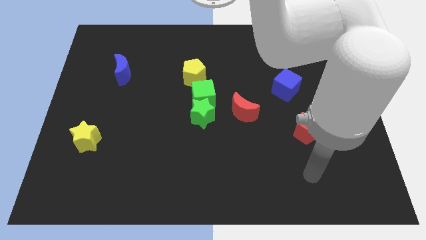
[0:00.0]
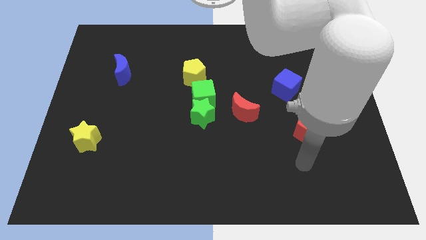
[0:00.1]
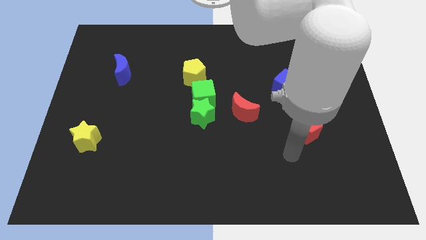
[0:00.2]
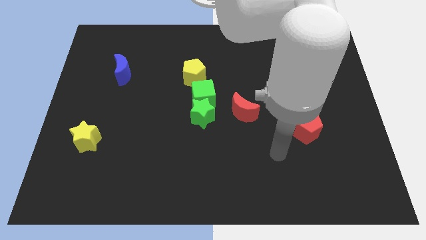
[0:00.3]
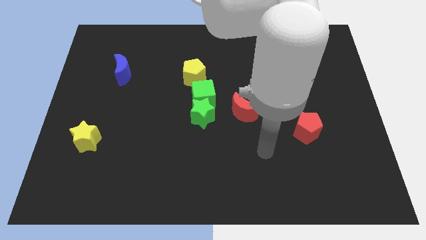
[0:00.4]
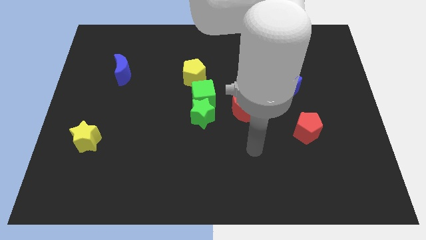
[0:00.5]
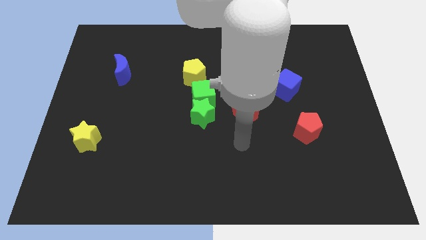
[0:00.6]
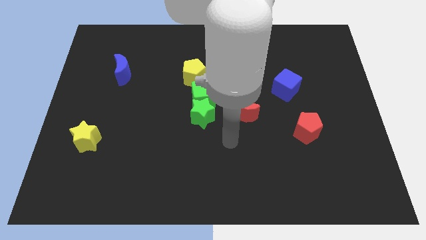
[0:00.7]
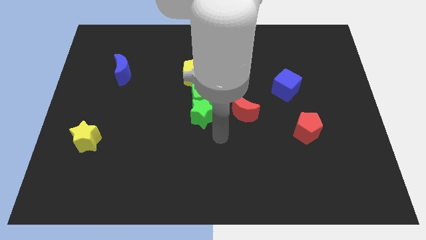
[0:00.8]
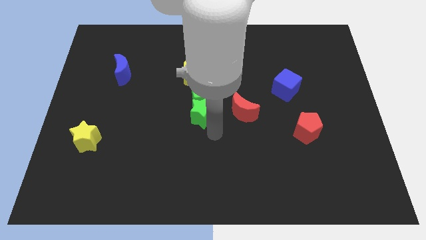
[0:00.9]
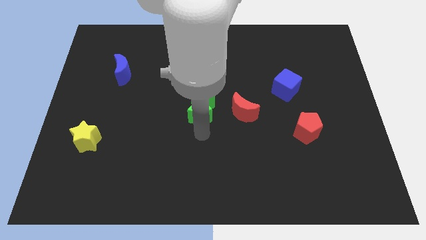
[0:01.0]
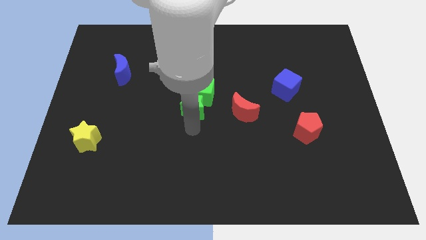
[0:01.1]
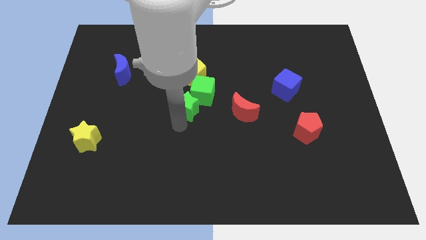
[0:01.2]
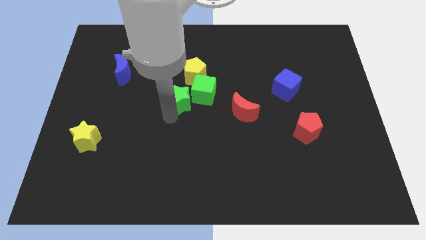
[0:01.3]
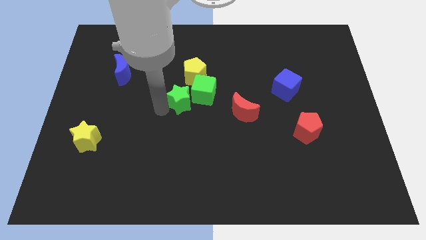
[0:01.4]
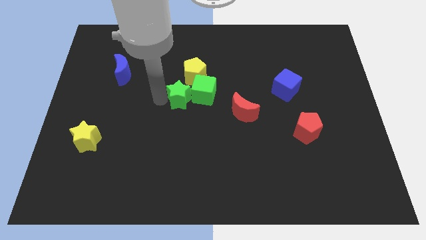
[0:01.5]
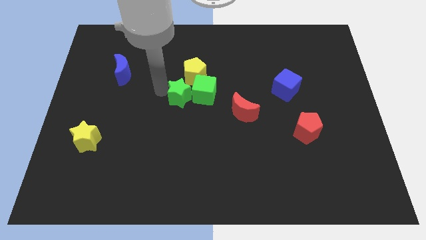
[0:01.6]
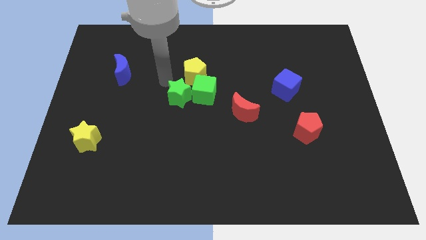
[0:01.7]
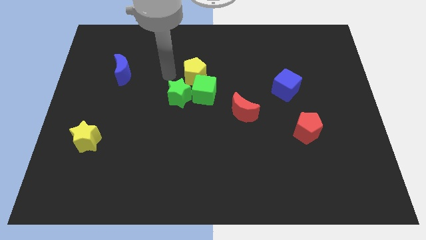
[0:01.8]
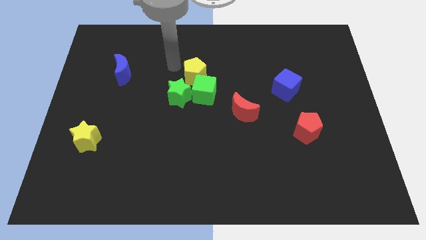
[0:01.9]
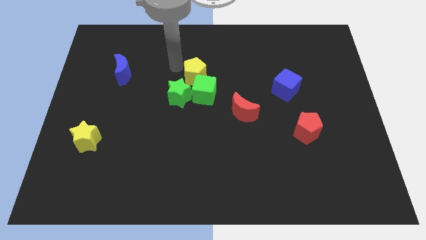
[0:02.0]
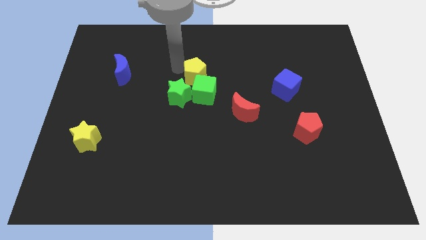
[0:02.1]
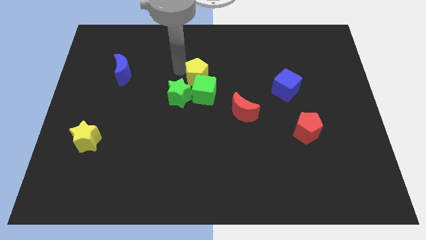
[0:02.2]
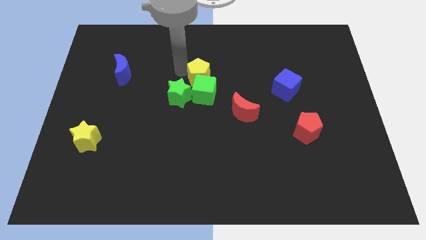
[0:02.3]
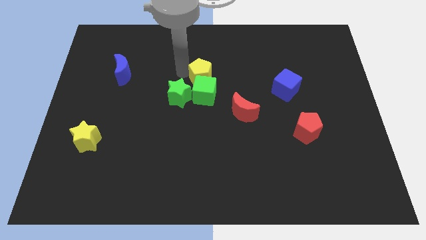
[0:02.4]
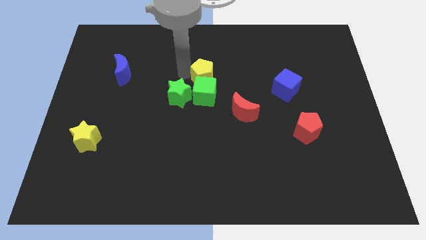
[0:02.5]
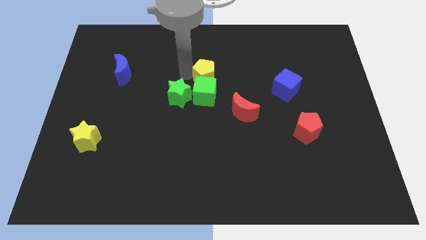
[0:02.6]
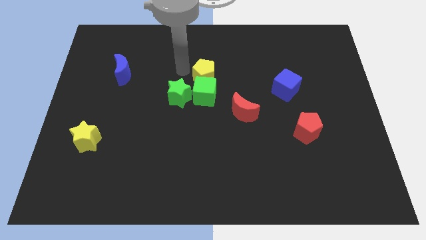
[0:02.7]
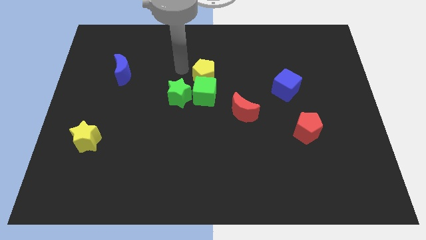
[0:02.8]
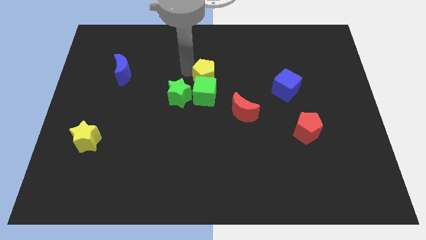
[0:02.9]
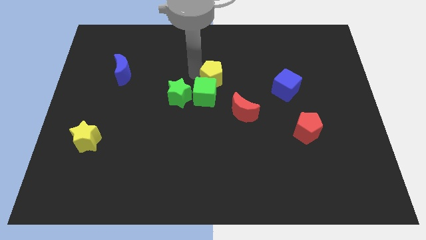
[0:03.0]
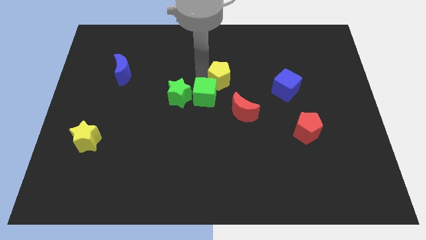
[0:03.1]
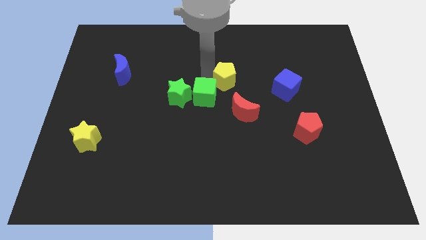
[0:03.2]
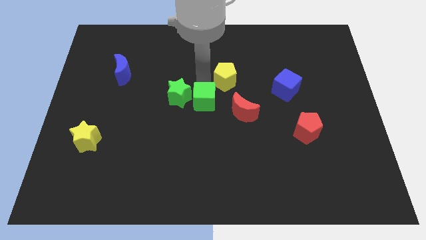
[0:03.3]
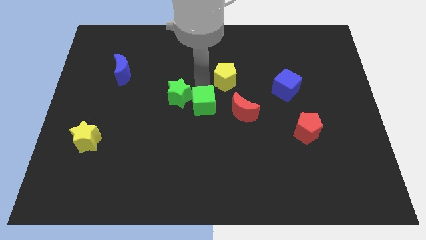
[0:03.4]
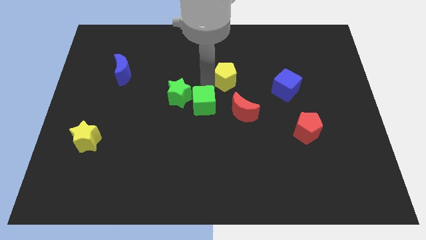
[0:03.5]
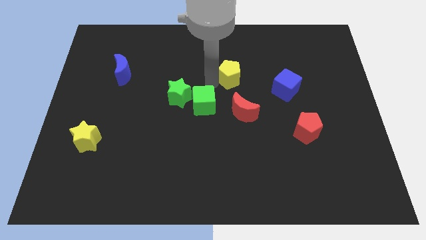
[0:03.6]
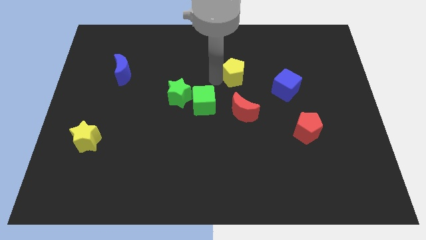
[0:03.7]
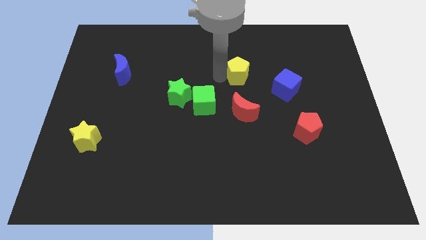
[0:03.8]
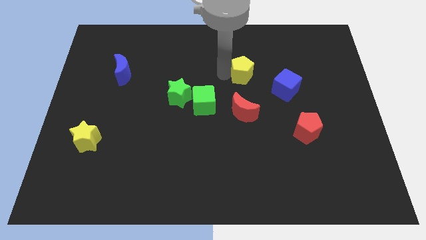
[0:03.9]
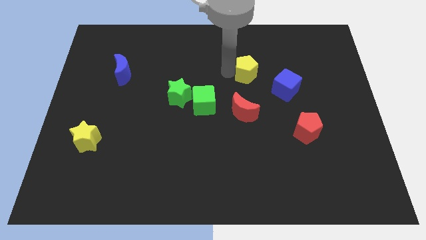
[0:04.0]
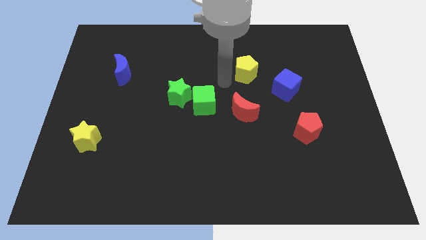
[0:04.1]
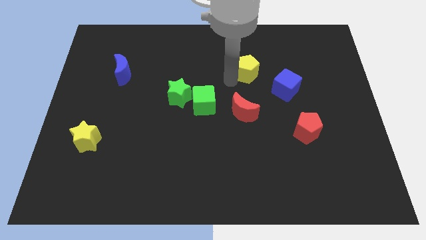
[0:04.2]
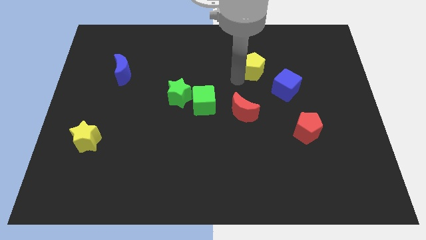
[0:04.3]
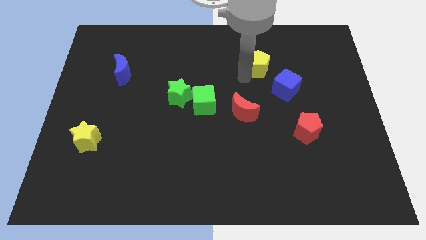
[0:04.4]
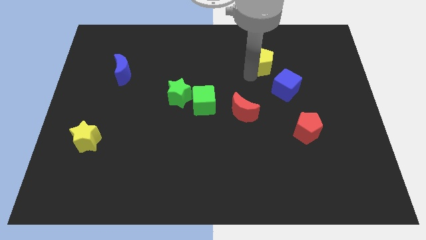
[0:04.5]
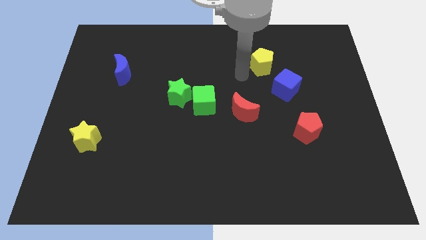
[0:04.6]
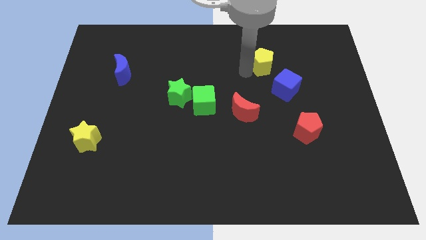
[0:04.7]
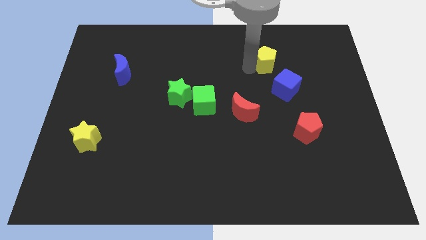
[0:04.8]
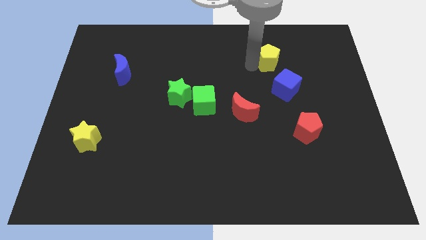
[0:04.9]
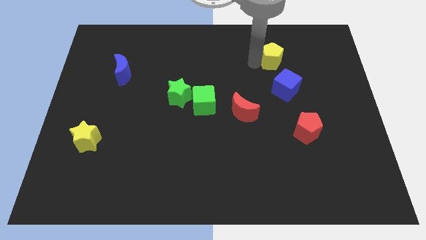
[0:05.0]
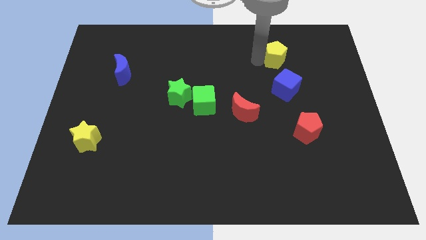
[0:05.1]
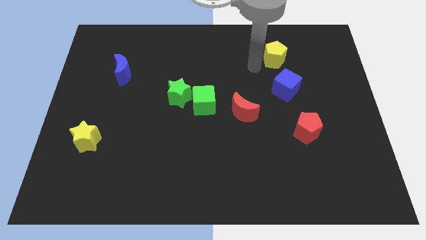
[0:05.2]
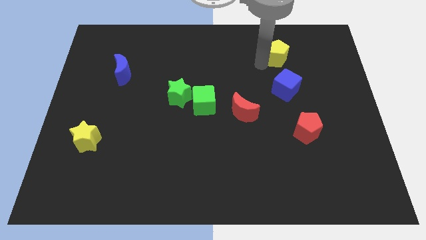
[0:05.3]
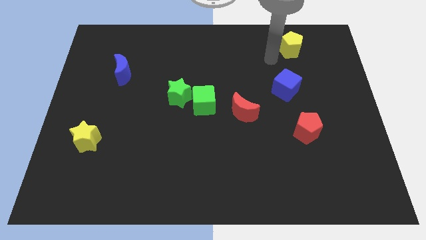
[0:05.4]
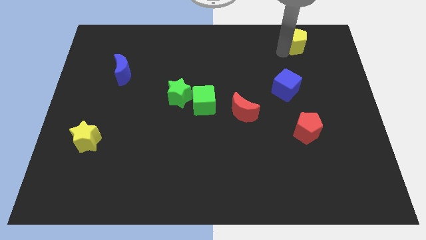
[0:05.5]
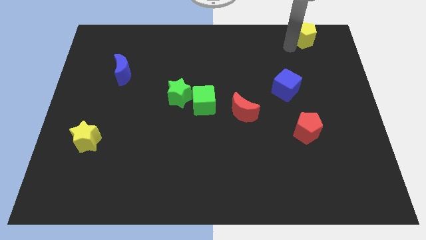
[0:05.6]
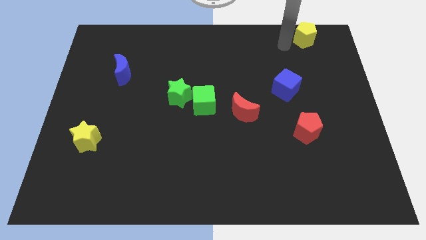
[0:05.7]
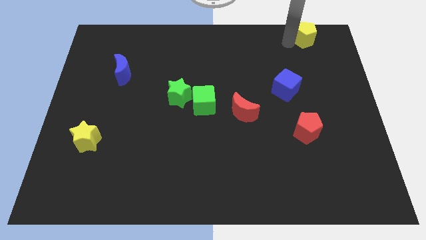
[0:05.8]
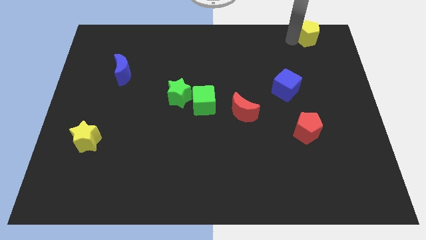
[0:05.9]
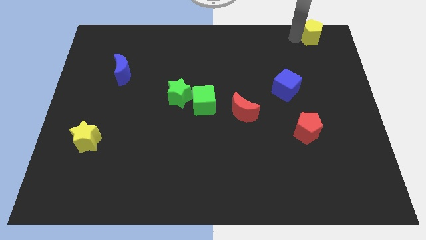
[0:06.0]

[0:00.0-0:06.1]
move the yellow pentagon to the top right
